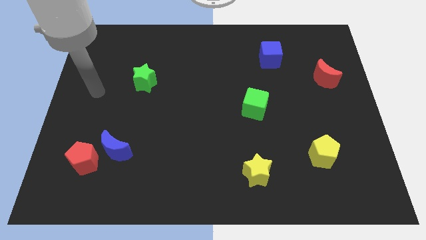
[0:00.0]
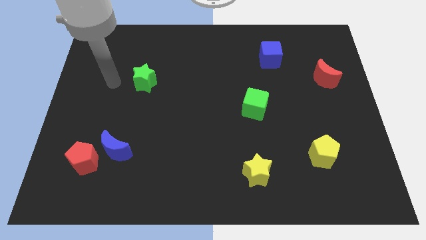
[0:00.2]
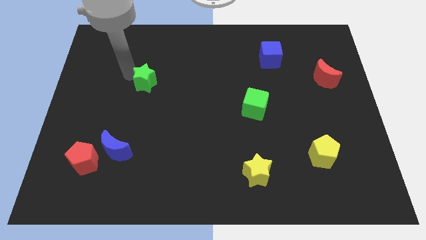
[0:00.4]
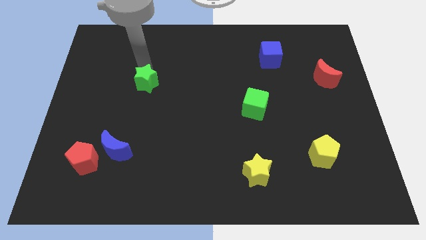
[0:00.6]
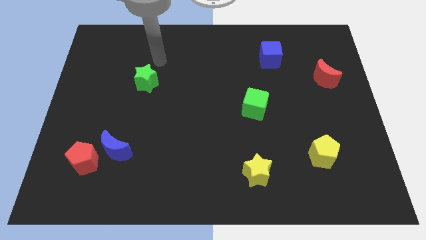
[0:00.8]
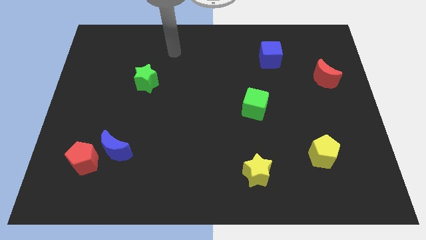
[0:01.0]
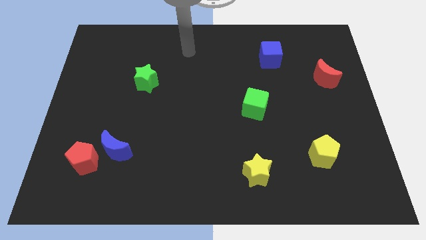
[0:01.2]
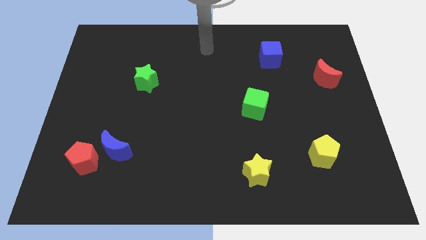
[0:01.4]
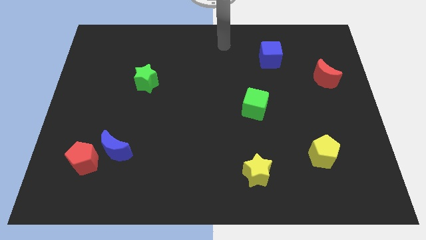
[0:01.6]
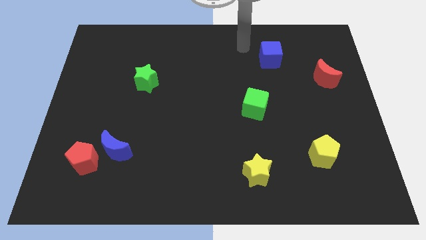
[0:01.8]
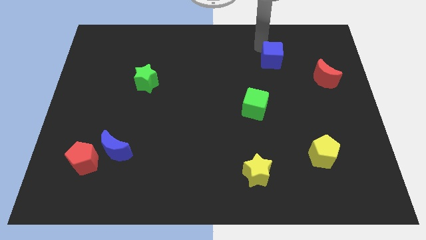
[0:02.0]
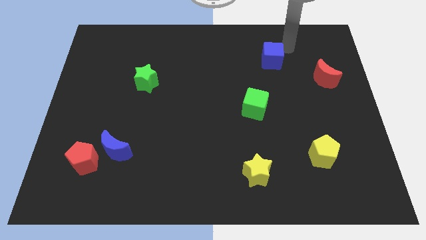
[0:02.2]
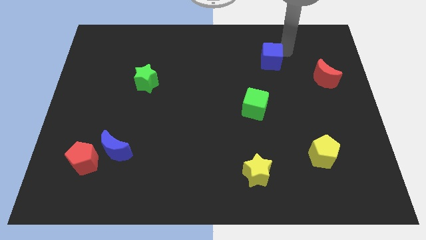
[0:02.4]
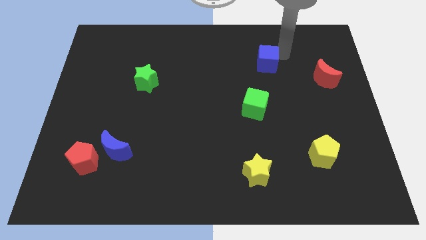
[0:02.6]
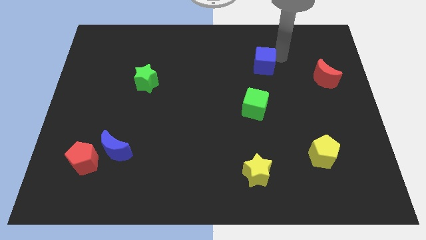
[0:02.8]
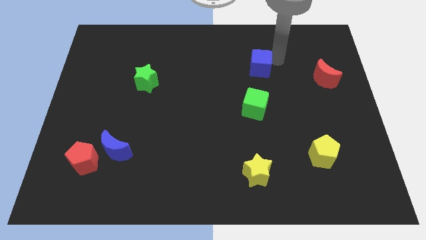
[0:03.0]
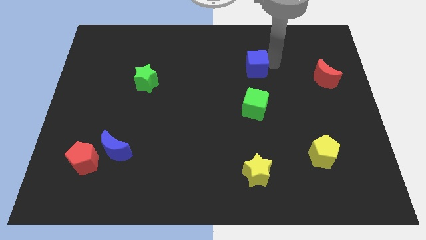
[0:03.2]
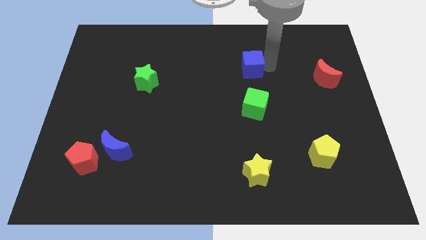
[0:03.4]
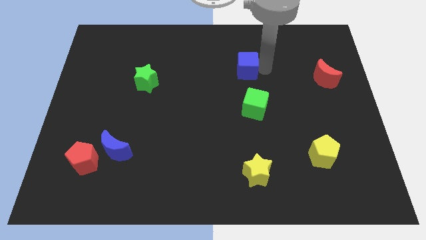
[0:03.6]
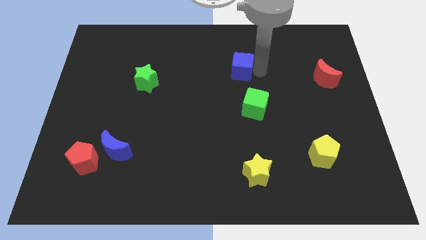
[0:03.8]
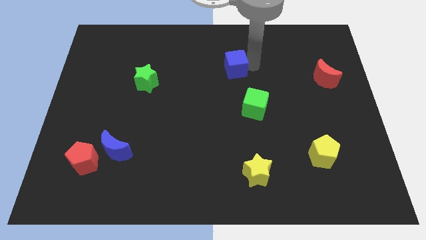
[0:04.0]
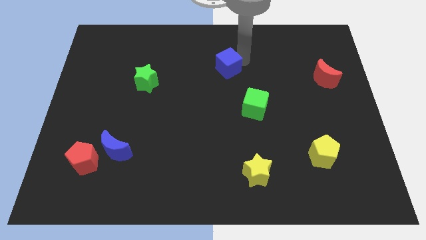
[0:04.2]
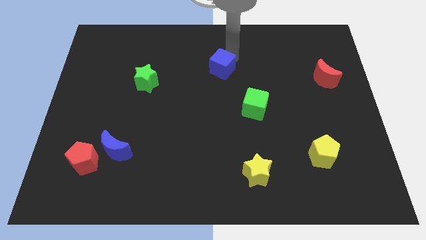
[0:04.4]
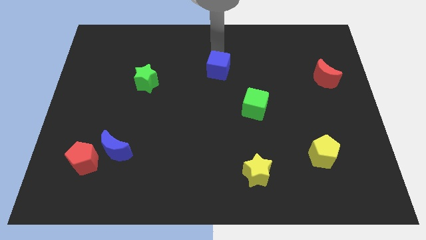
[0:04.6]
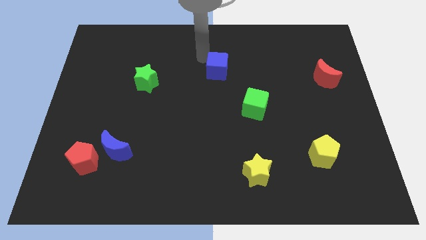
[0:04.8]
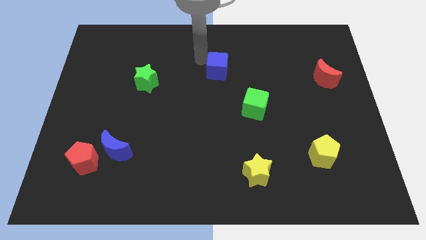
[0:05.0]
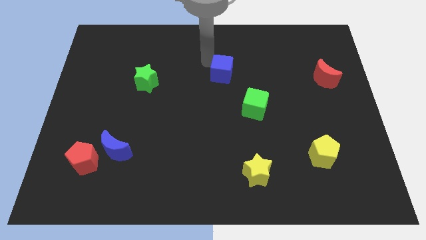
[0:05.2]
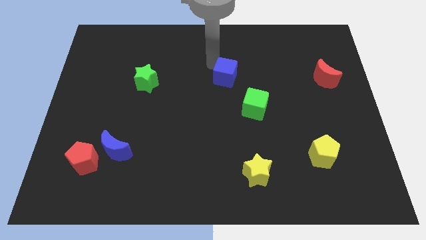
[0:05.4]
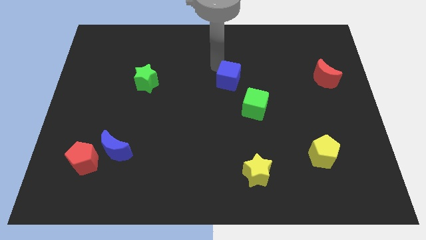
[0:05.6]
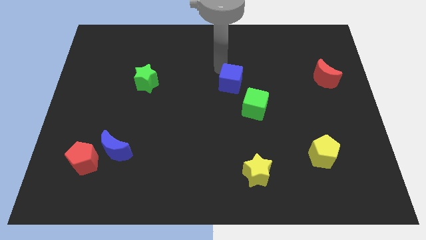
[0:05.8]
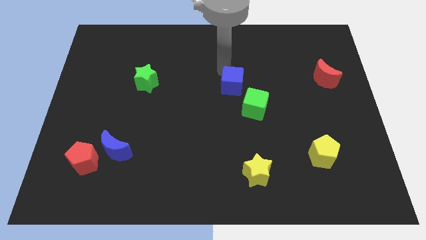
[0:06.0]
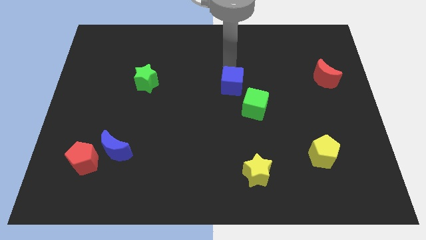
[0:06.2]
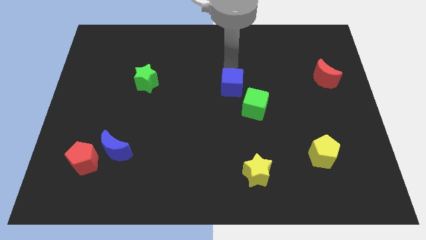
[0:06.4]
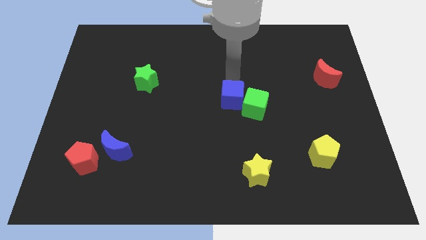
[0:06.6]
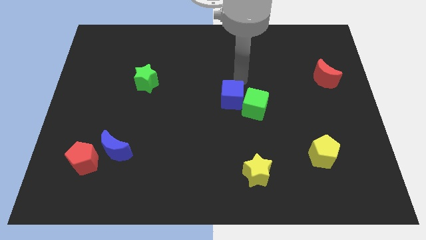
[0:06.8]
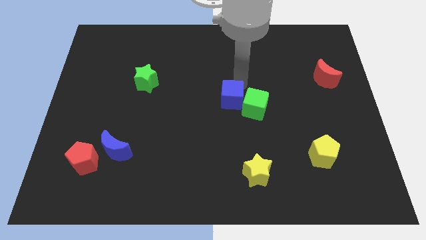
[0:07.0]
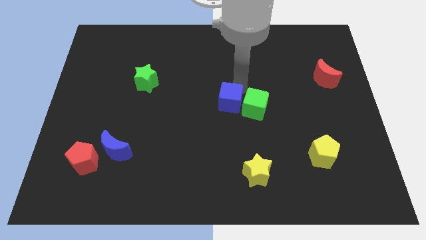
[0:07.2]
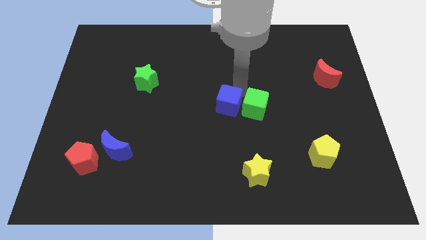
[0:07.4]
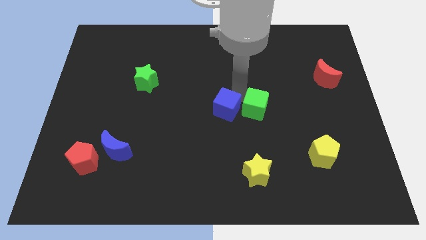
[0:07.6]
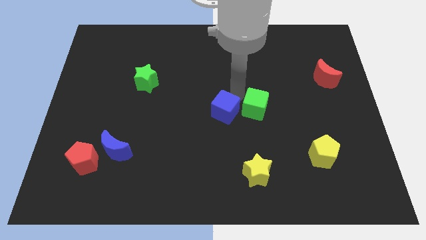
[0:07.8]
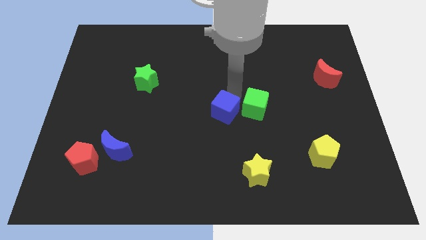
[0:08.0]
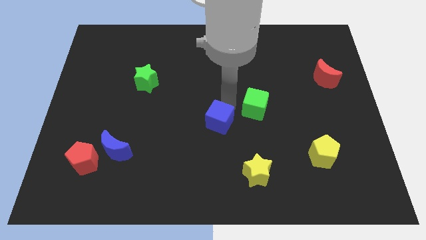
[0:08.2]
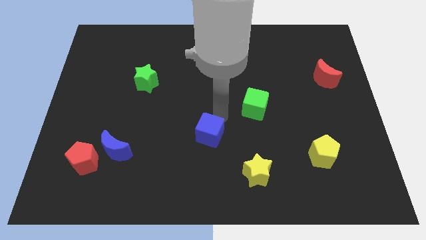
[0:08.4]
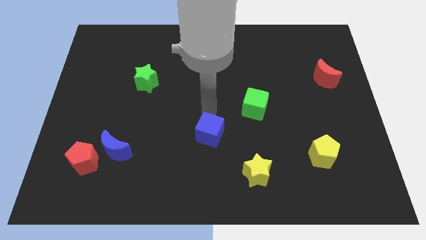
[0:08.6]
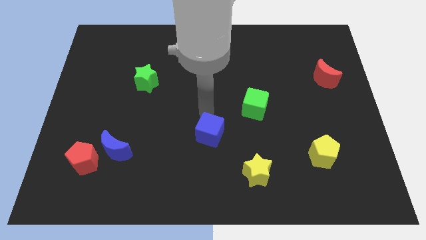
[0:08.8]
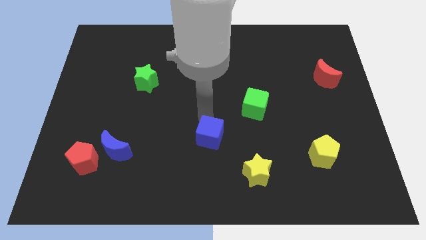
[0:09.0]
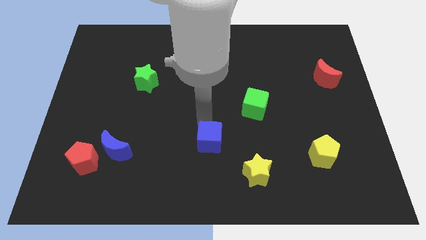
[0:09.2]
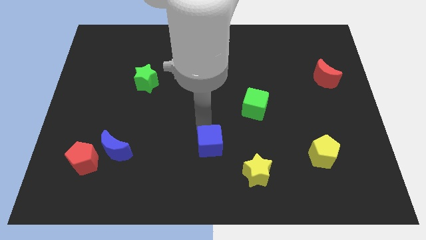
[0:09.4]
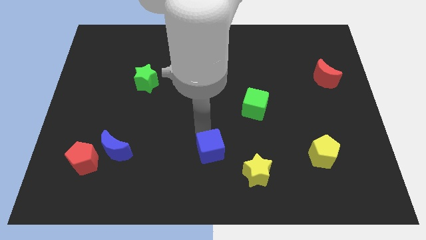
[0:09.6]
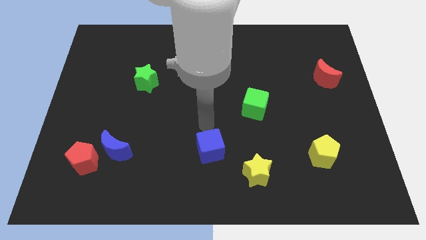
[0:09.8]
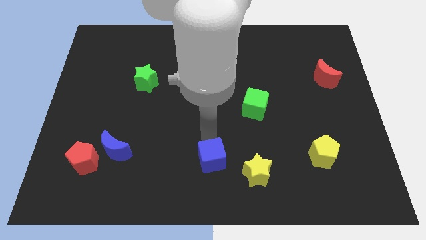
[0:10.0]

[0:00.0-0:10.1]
push the blue cube to the bottom
